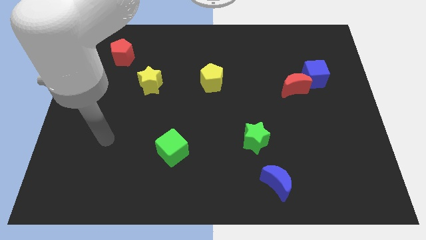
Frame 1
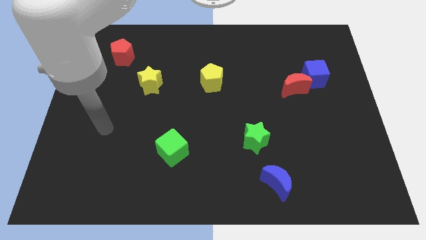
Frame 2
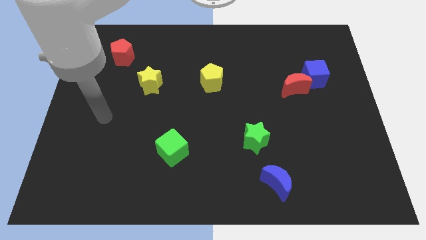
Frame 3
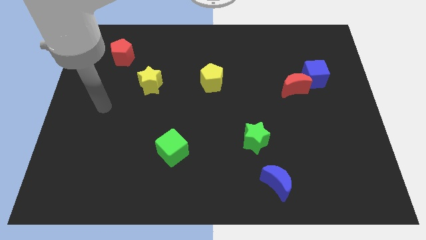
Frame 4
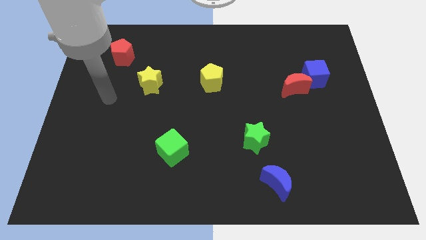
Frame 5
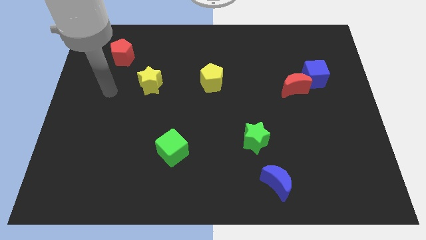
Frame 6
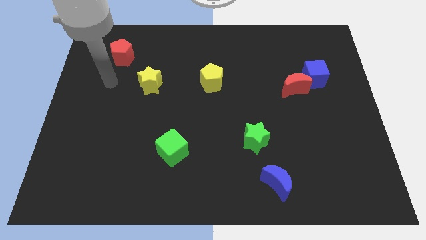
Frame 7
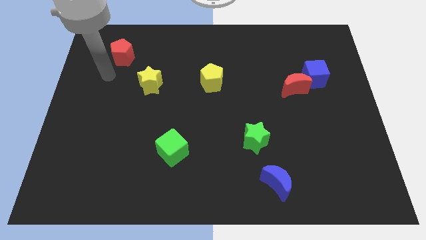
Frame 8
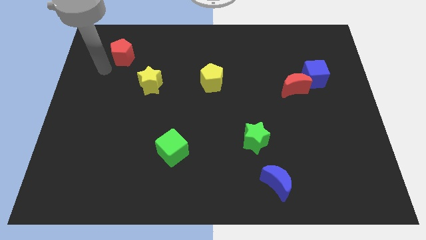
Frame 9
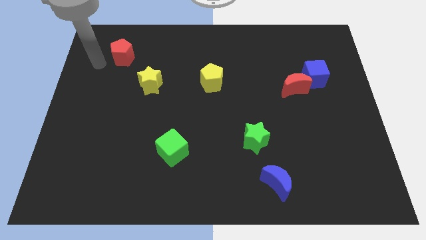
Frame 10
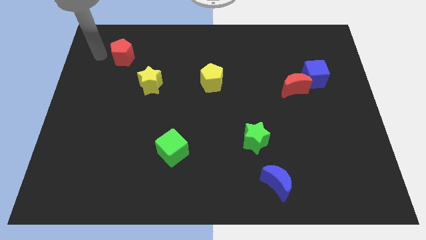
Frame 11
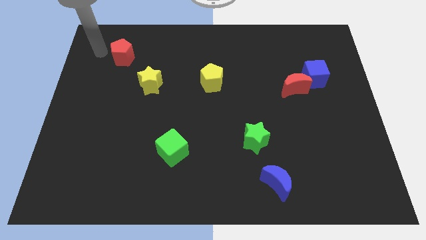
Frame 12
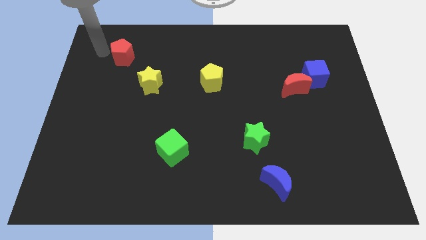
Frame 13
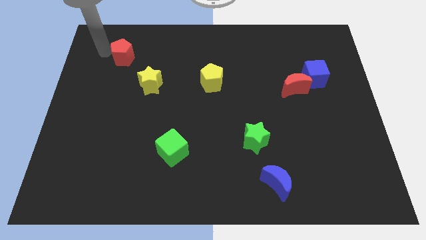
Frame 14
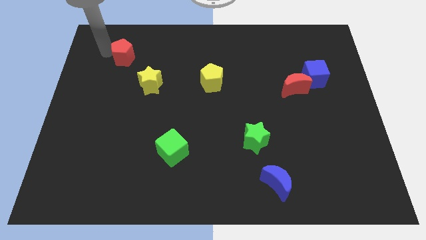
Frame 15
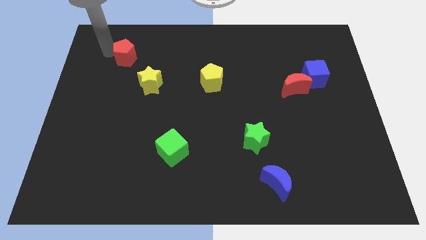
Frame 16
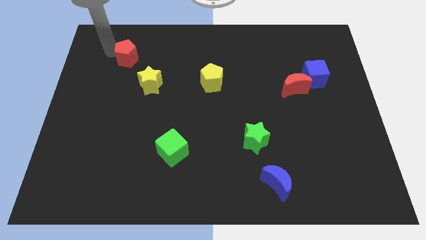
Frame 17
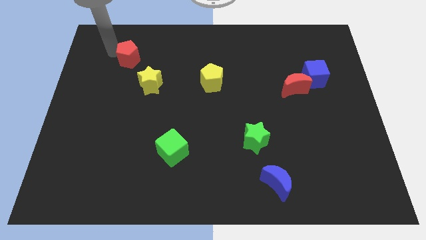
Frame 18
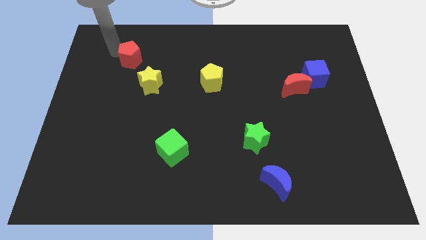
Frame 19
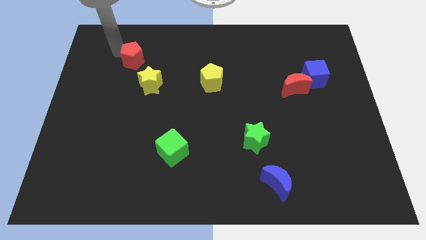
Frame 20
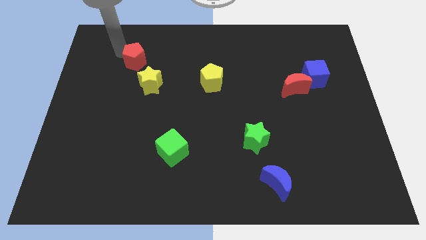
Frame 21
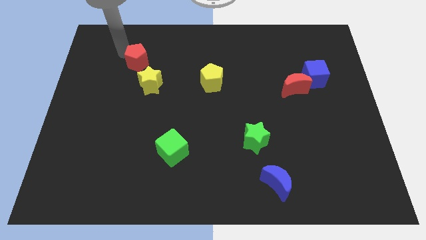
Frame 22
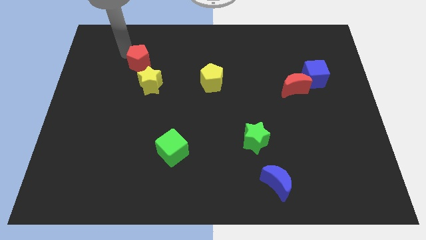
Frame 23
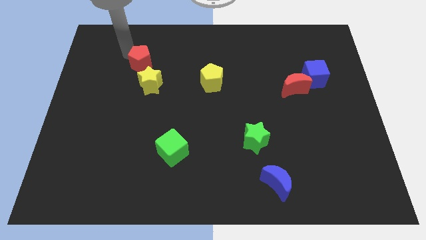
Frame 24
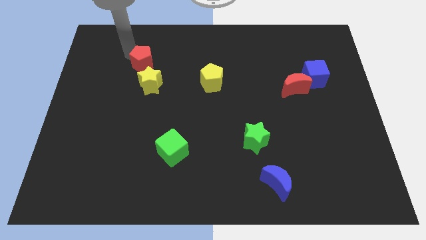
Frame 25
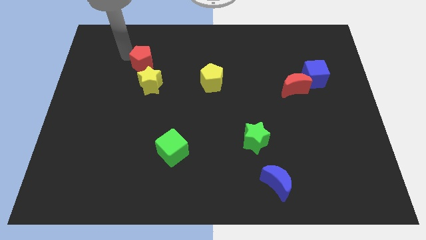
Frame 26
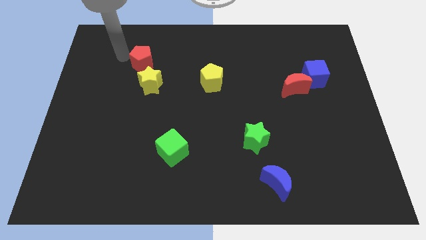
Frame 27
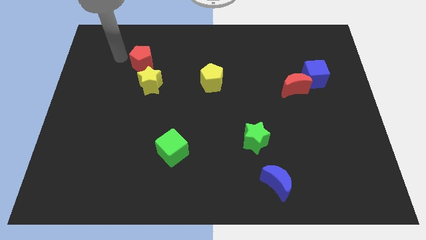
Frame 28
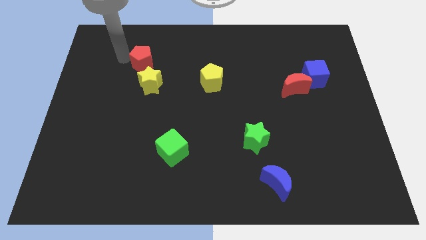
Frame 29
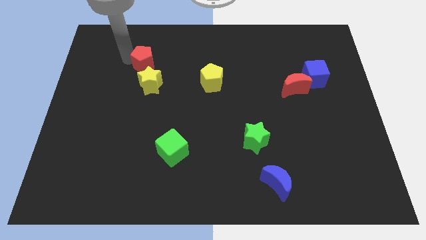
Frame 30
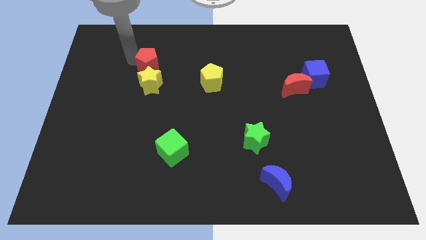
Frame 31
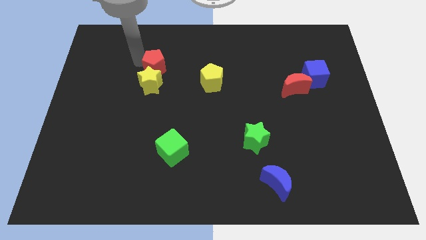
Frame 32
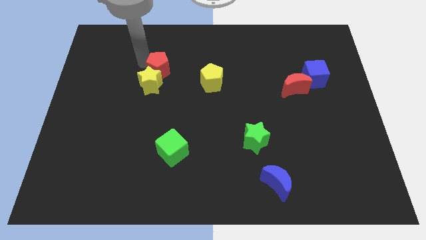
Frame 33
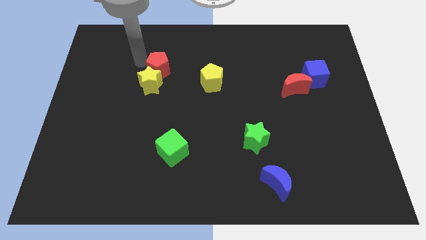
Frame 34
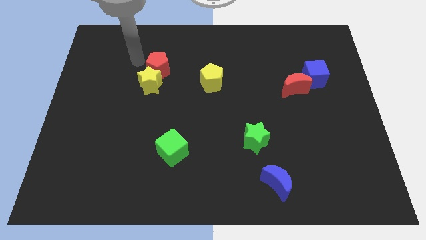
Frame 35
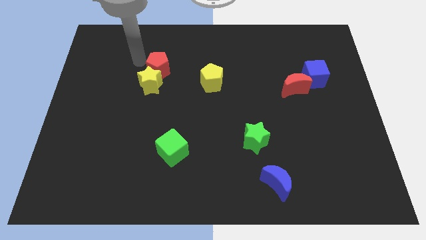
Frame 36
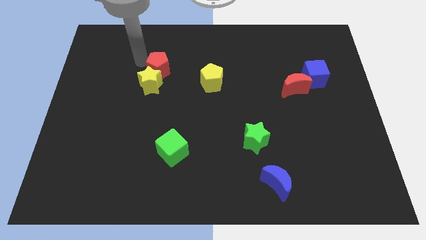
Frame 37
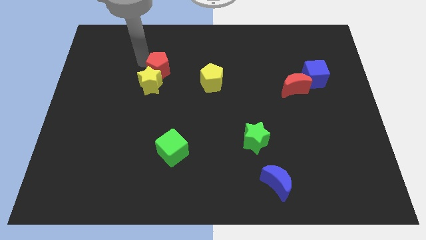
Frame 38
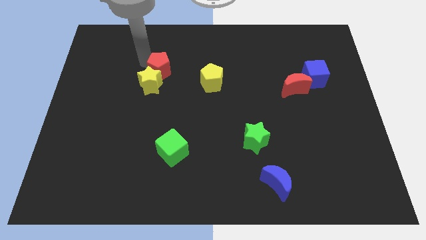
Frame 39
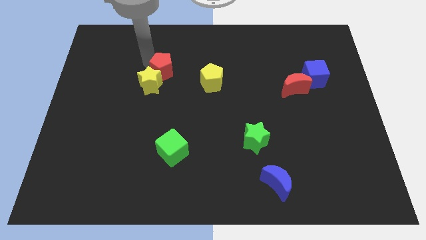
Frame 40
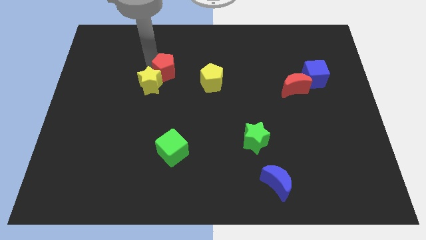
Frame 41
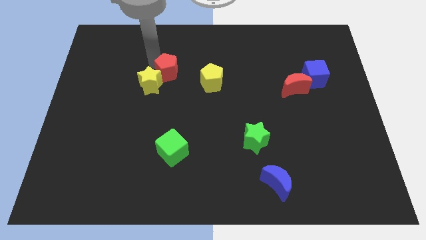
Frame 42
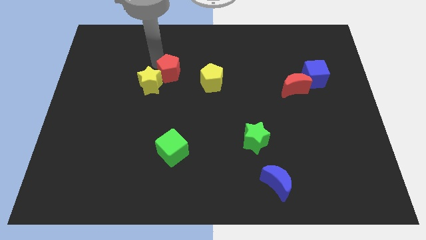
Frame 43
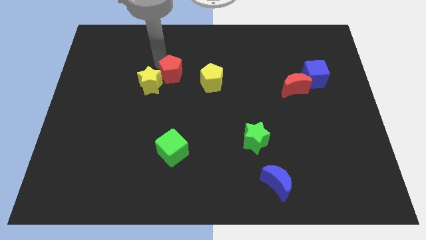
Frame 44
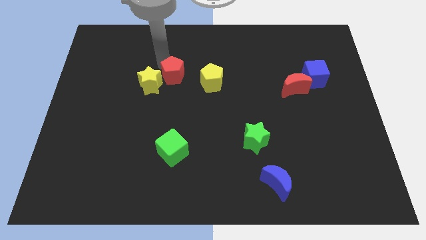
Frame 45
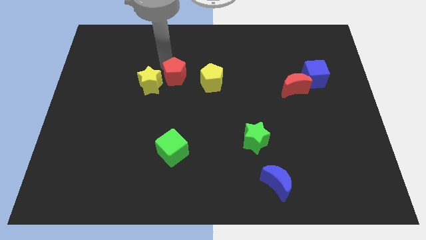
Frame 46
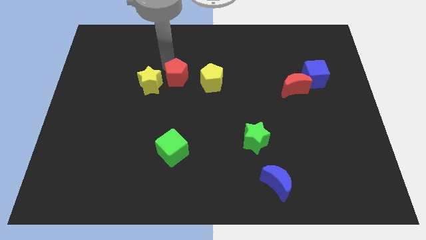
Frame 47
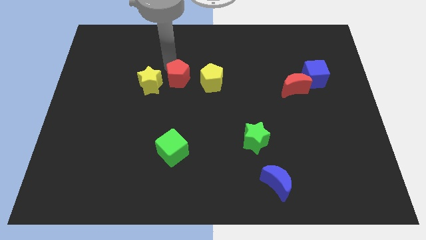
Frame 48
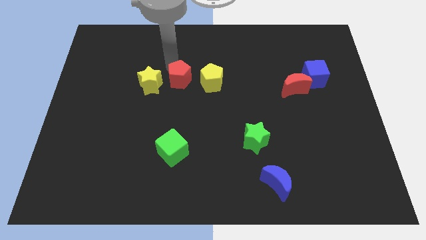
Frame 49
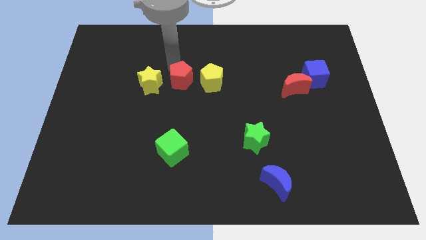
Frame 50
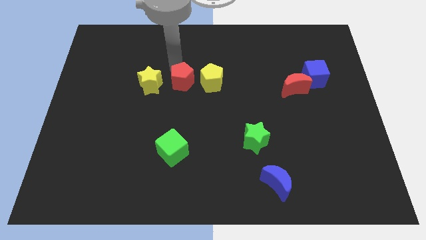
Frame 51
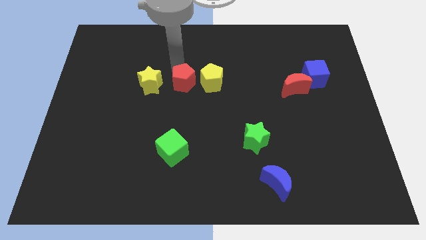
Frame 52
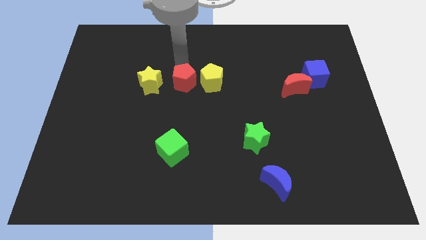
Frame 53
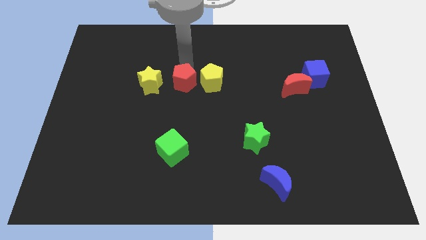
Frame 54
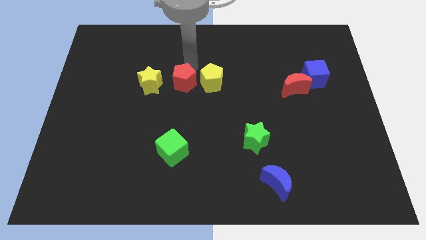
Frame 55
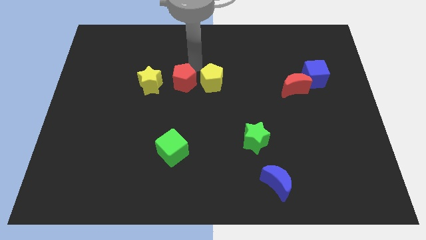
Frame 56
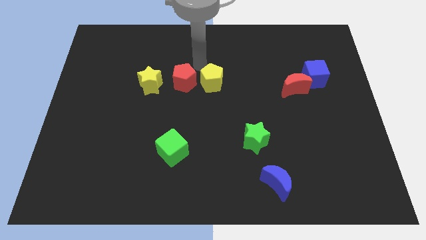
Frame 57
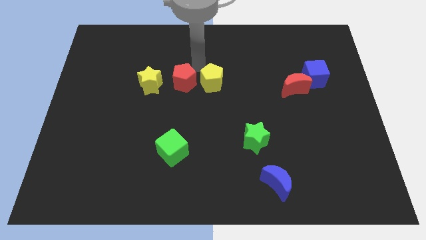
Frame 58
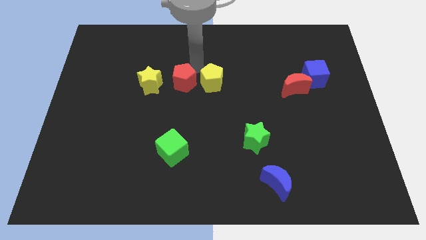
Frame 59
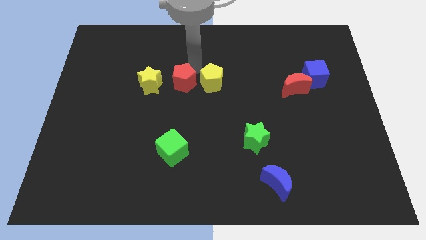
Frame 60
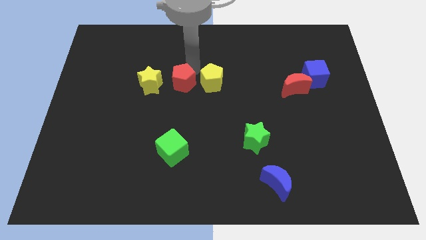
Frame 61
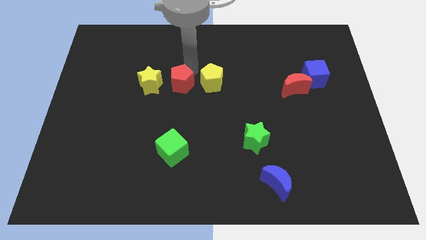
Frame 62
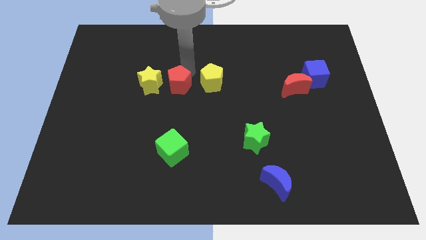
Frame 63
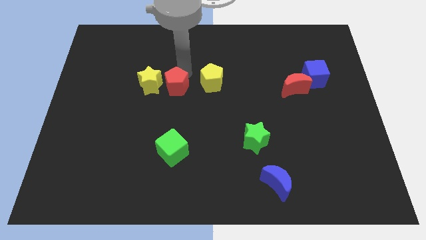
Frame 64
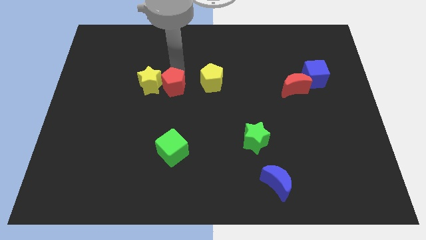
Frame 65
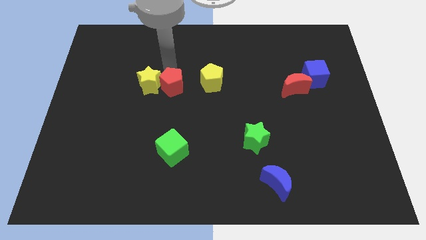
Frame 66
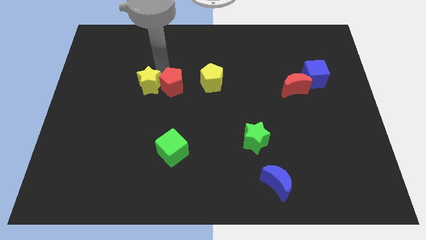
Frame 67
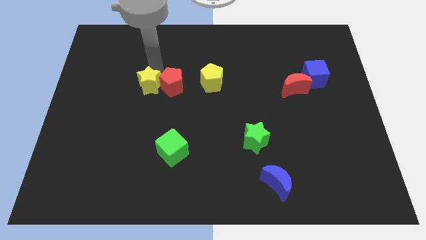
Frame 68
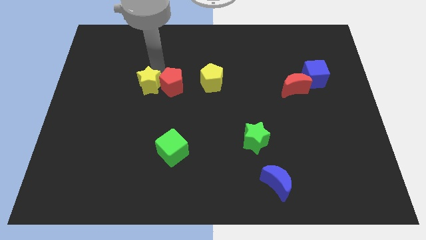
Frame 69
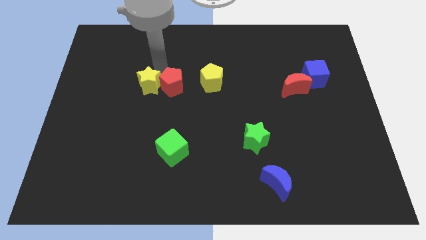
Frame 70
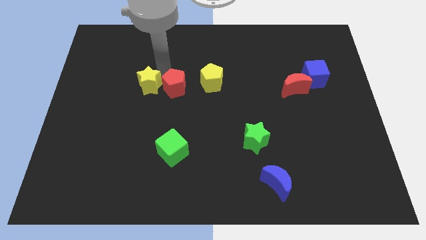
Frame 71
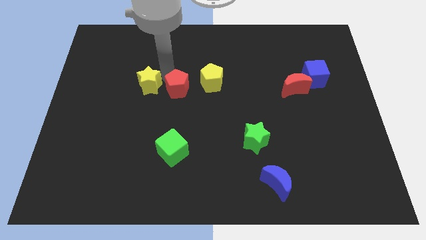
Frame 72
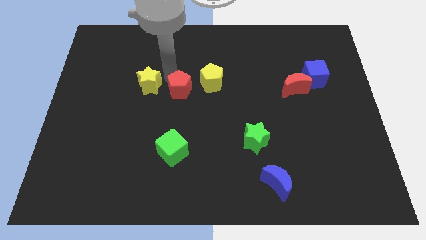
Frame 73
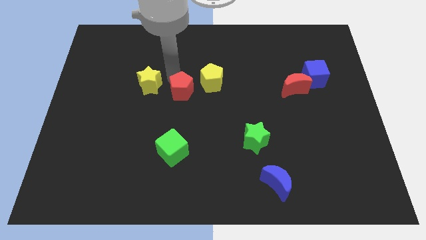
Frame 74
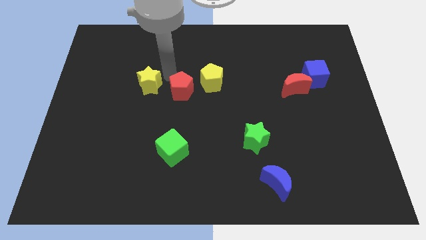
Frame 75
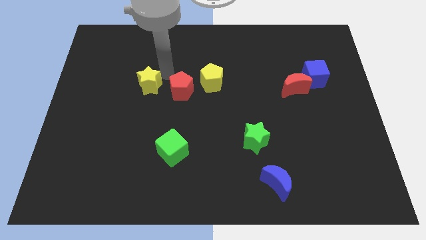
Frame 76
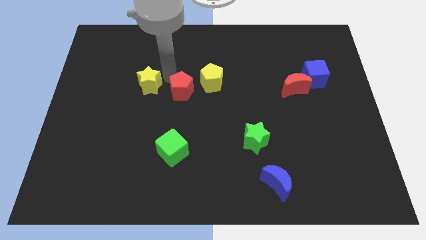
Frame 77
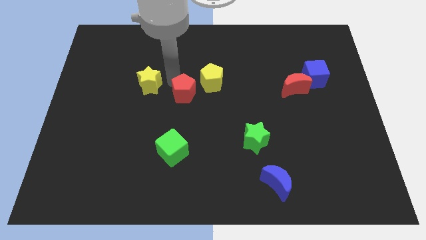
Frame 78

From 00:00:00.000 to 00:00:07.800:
push the red pentagon down and to the right diagonally

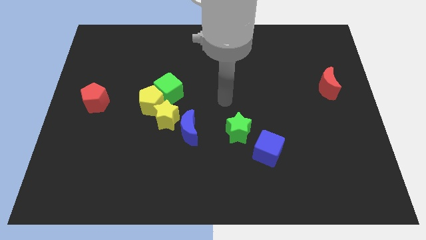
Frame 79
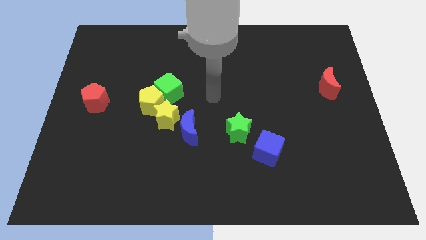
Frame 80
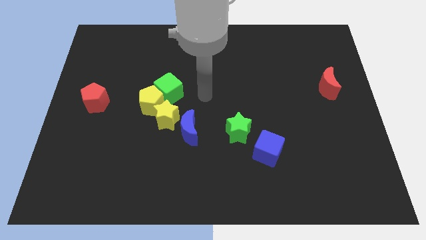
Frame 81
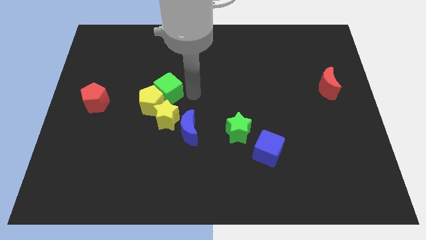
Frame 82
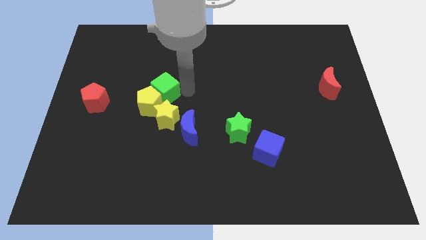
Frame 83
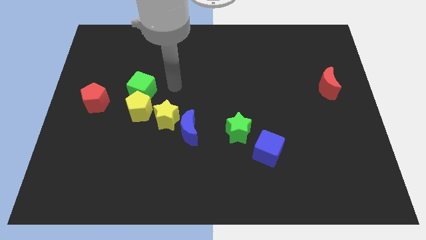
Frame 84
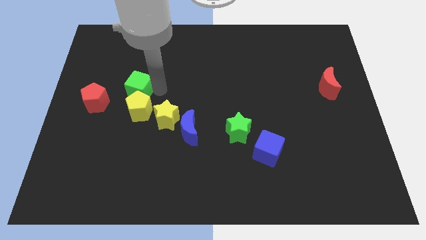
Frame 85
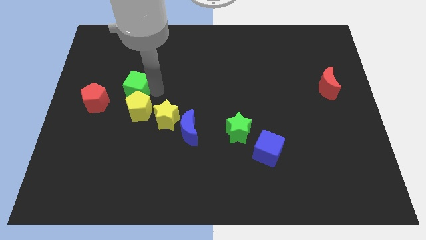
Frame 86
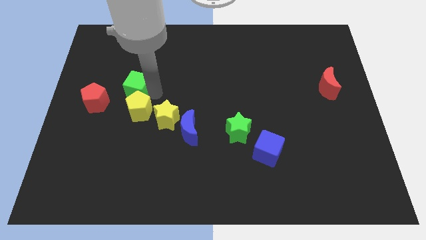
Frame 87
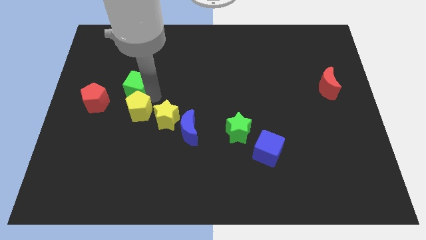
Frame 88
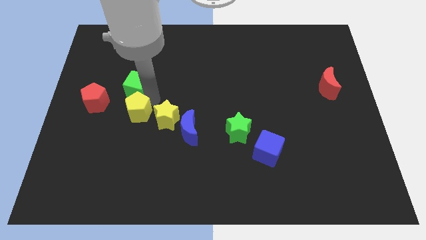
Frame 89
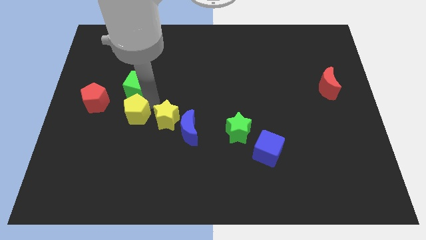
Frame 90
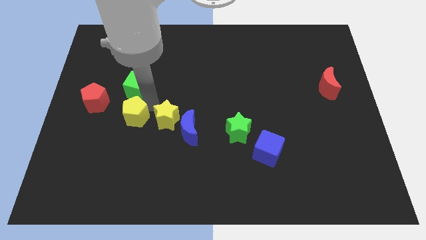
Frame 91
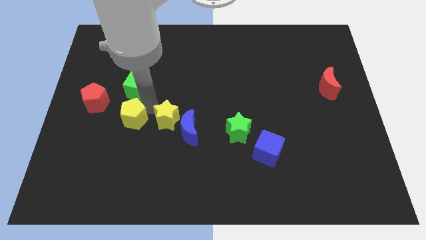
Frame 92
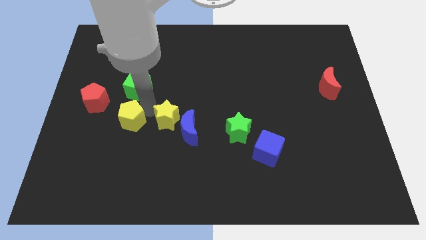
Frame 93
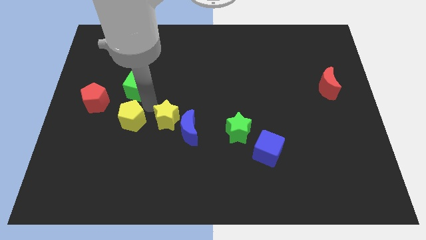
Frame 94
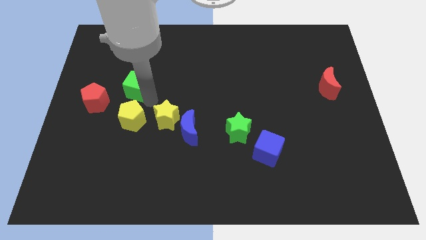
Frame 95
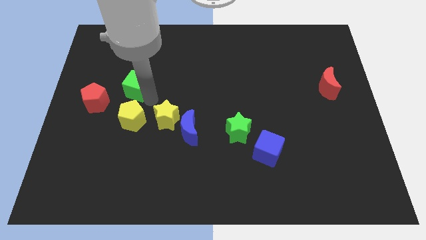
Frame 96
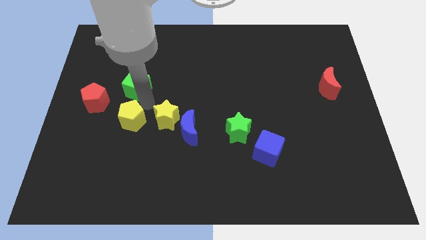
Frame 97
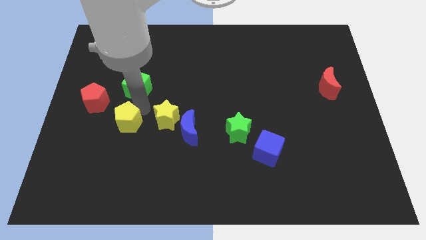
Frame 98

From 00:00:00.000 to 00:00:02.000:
move the yellow pentagon slightly down and to the left
